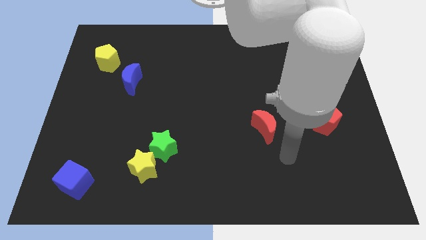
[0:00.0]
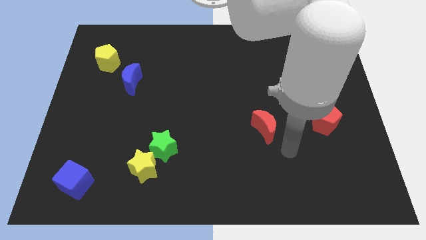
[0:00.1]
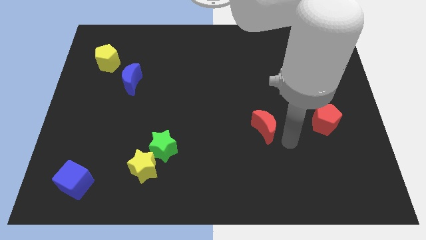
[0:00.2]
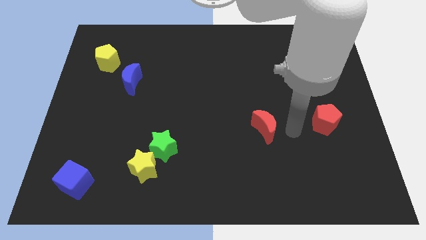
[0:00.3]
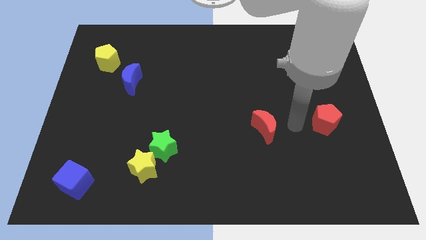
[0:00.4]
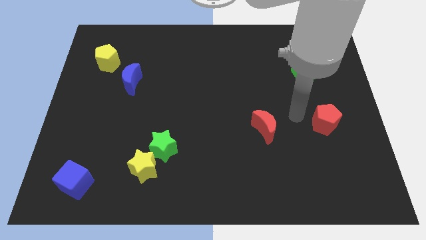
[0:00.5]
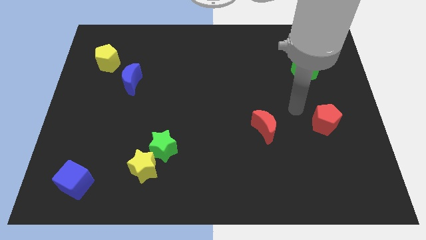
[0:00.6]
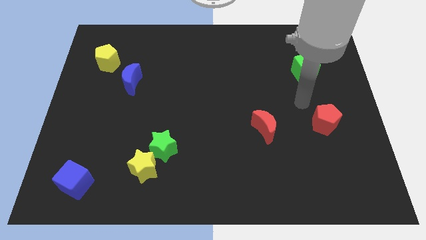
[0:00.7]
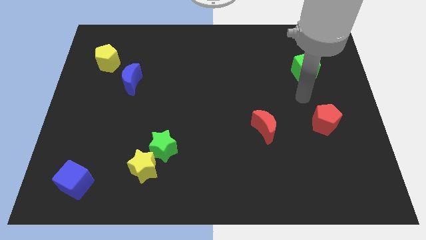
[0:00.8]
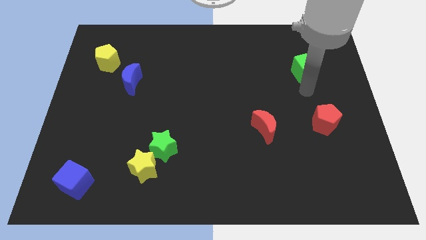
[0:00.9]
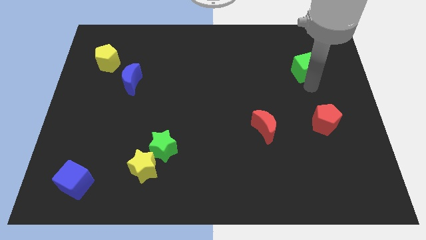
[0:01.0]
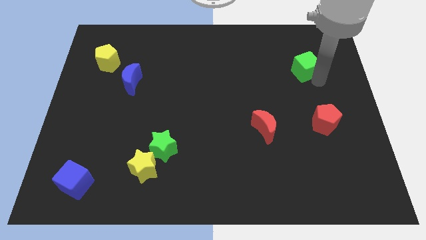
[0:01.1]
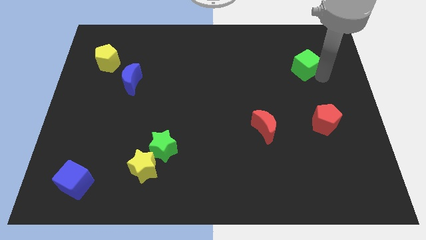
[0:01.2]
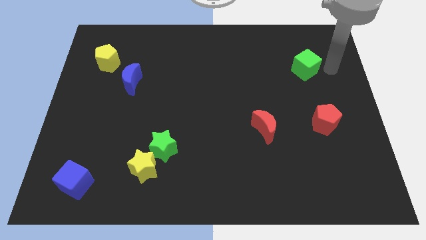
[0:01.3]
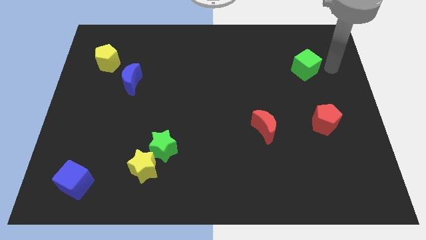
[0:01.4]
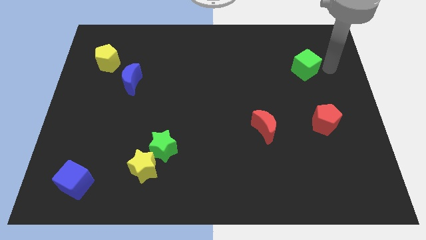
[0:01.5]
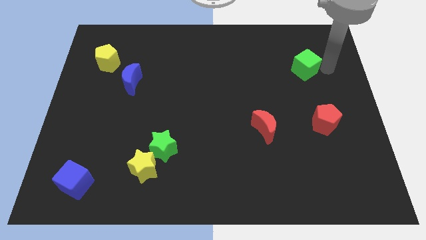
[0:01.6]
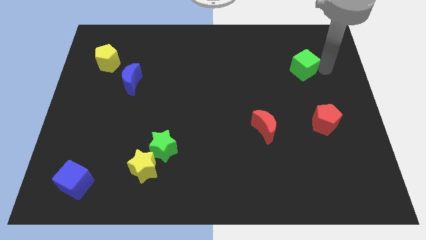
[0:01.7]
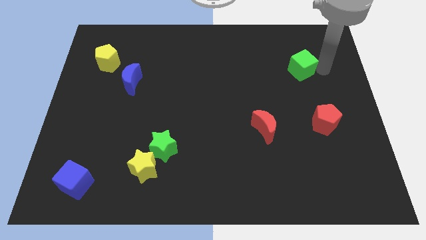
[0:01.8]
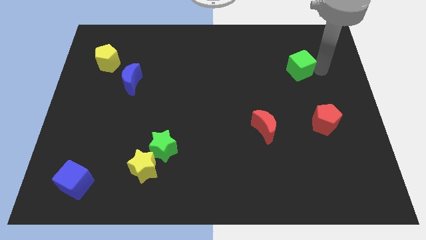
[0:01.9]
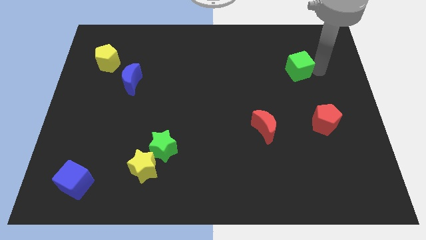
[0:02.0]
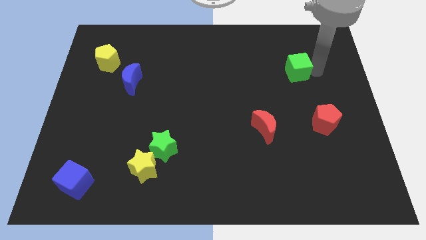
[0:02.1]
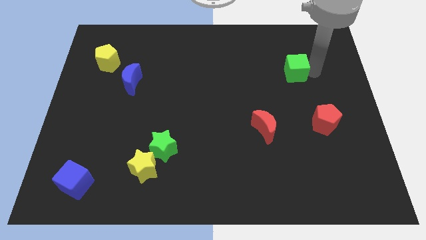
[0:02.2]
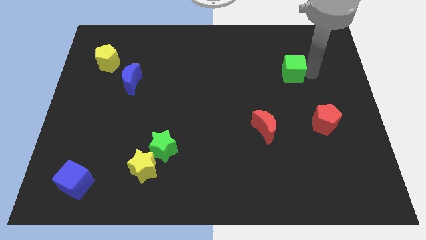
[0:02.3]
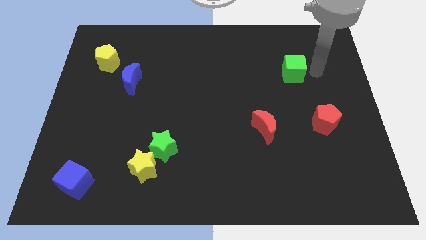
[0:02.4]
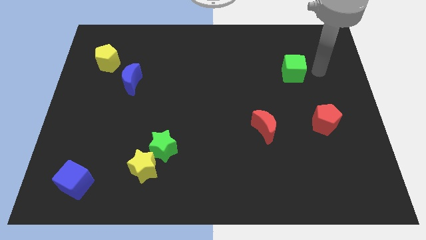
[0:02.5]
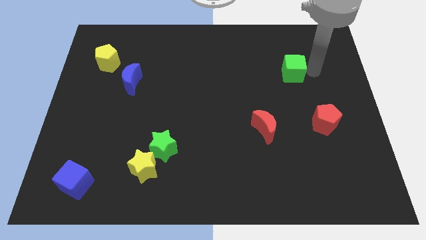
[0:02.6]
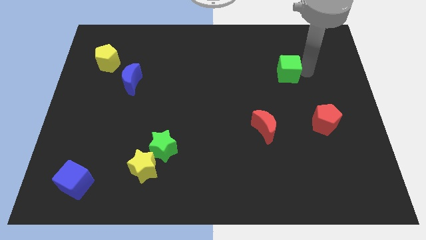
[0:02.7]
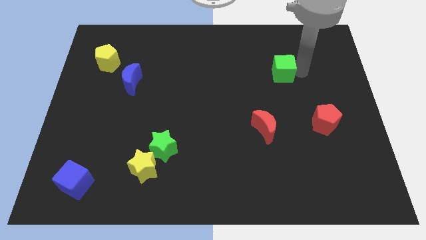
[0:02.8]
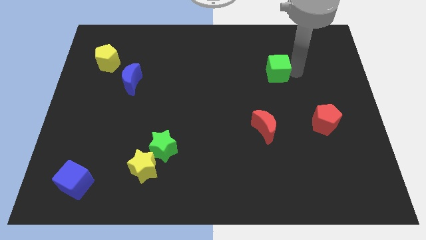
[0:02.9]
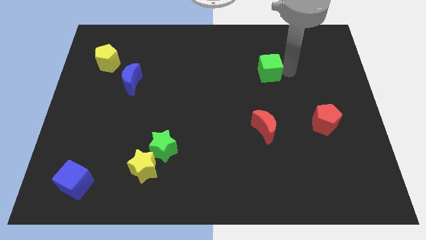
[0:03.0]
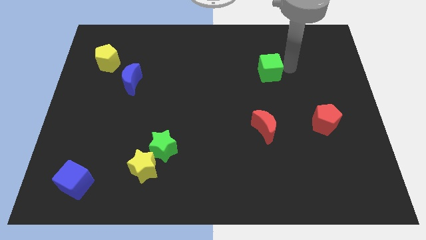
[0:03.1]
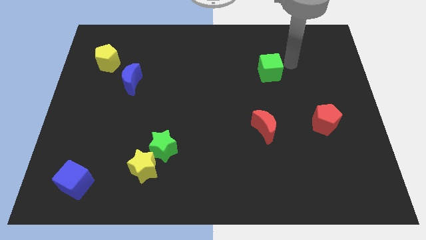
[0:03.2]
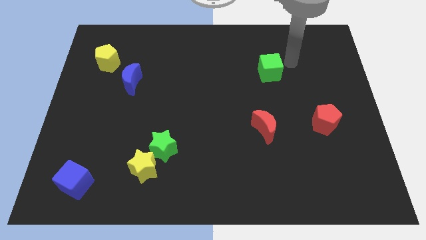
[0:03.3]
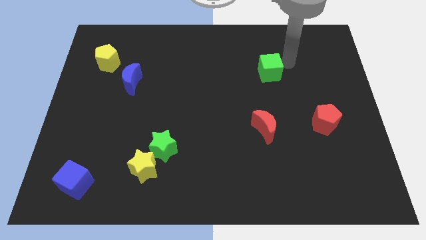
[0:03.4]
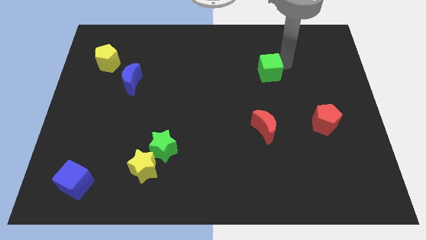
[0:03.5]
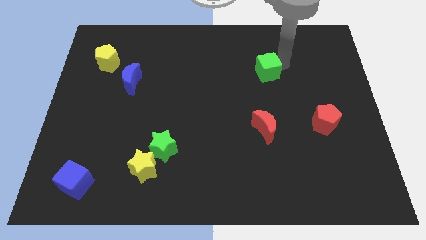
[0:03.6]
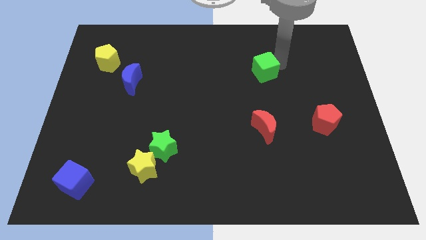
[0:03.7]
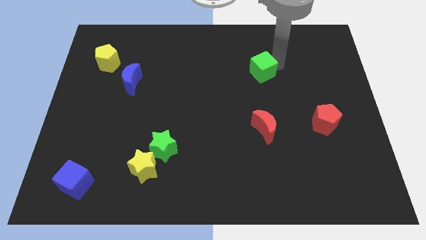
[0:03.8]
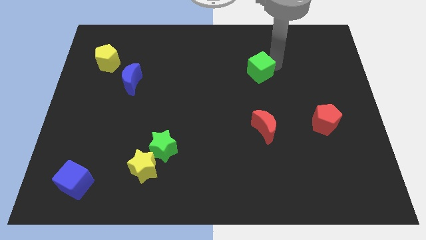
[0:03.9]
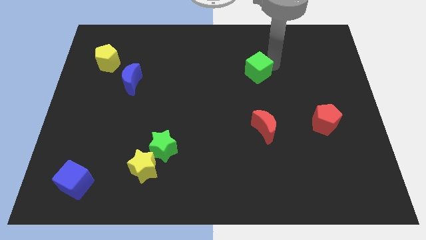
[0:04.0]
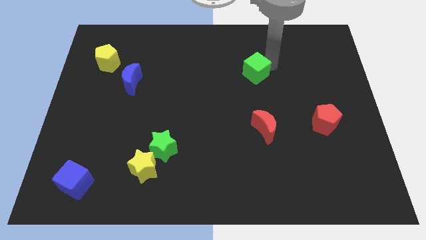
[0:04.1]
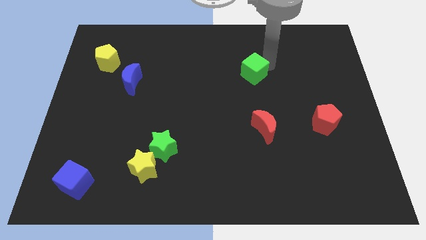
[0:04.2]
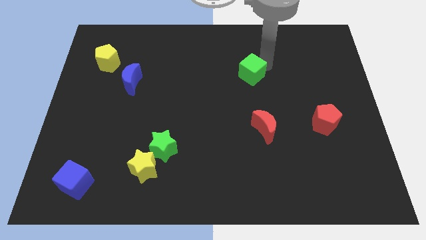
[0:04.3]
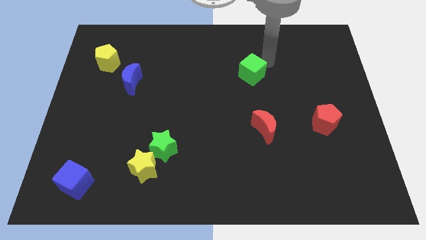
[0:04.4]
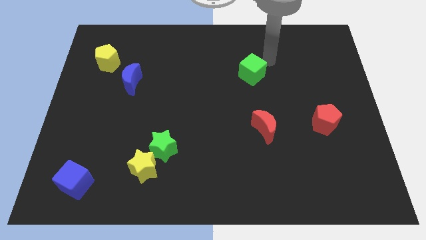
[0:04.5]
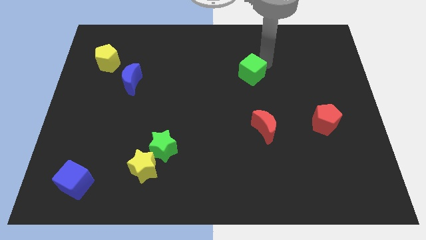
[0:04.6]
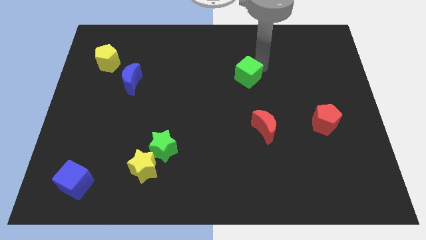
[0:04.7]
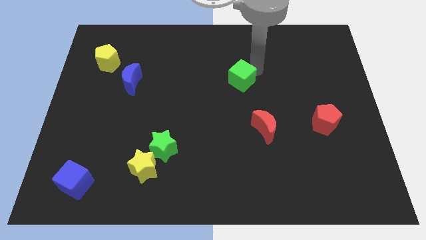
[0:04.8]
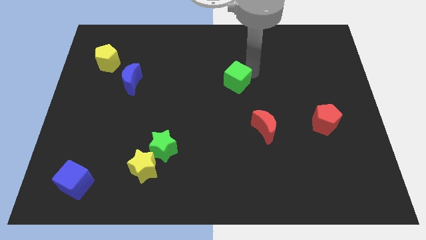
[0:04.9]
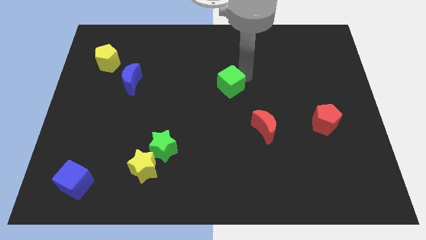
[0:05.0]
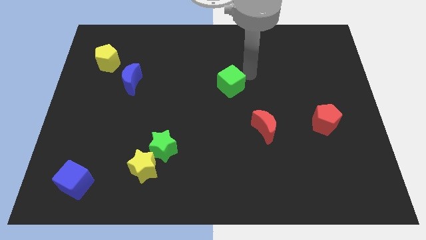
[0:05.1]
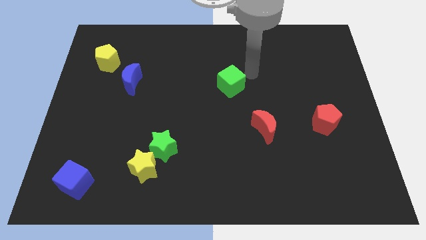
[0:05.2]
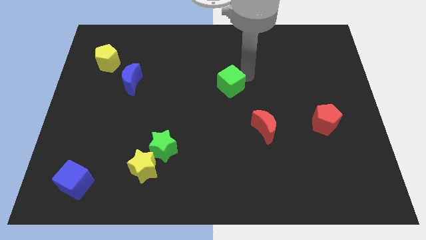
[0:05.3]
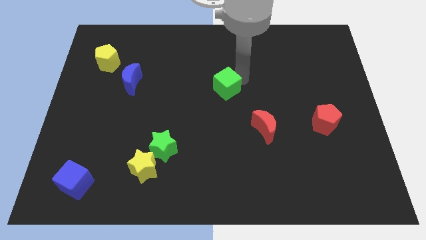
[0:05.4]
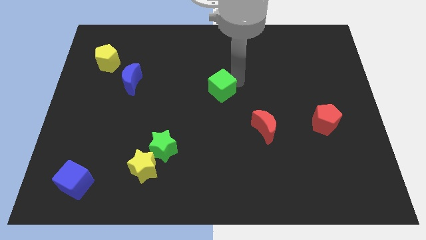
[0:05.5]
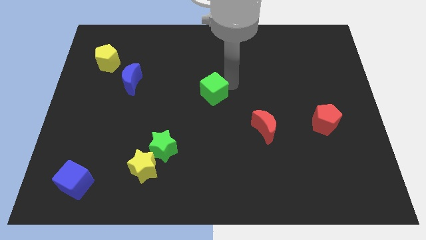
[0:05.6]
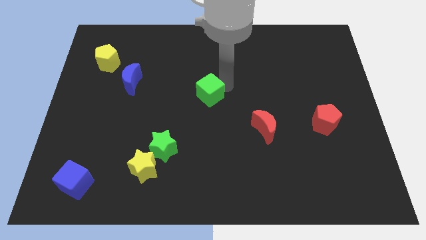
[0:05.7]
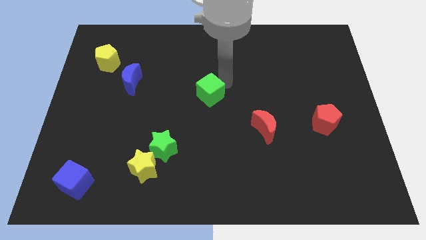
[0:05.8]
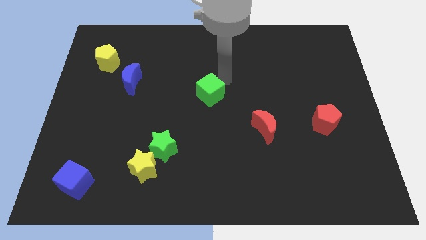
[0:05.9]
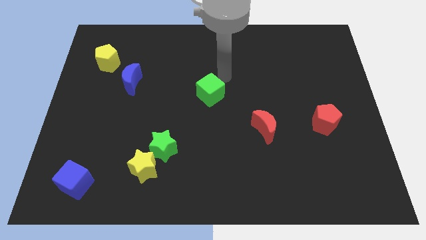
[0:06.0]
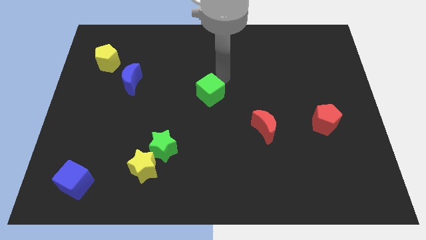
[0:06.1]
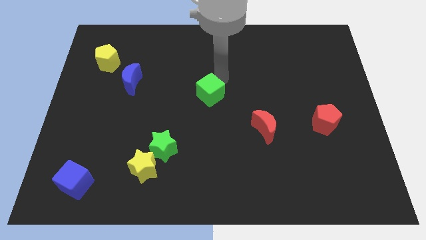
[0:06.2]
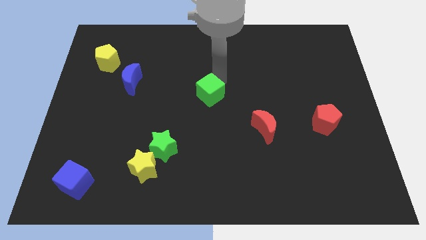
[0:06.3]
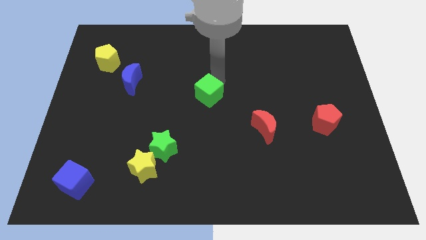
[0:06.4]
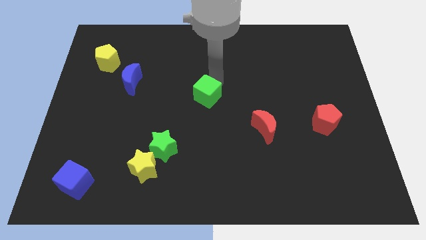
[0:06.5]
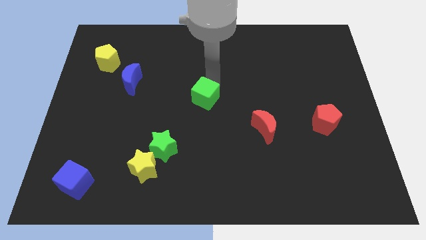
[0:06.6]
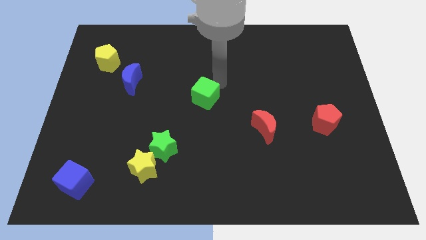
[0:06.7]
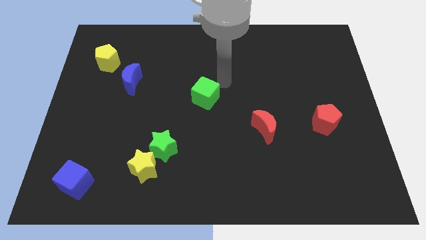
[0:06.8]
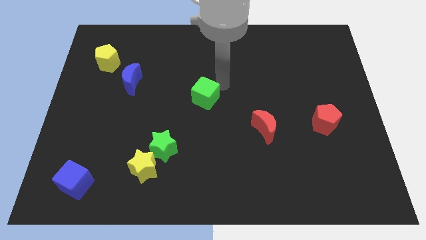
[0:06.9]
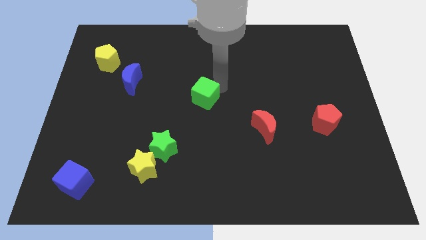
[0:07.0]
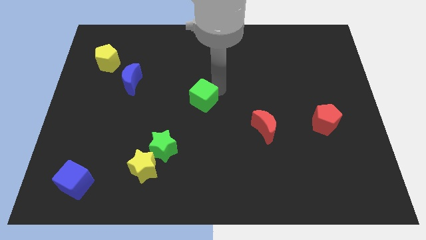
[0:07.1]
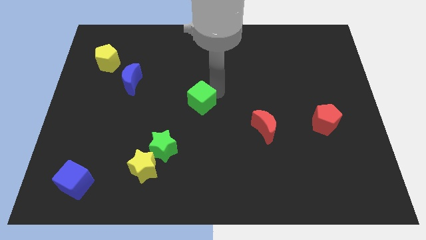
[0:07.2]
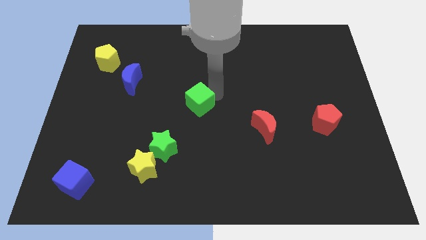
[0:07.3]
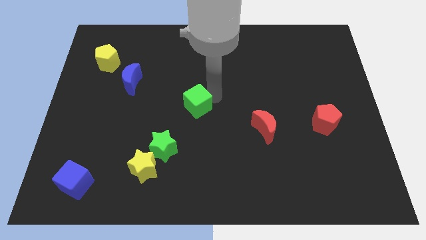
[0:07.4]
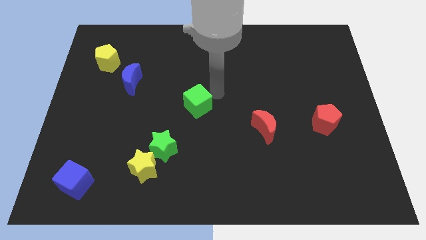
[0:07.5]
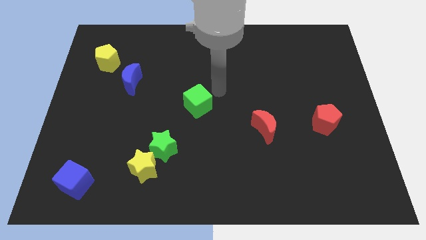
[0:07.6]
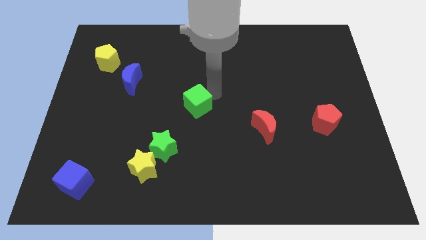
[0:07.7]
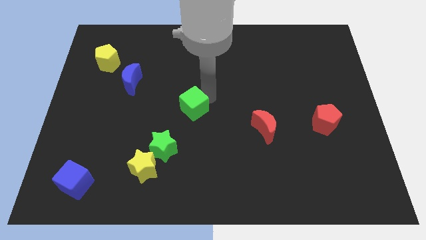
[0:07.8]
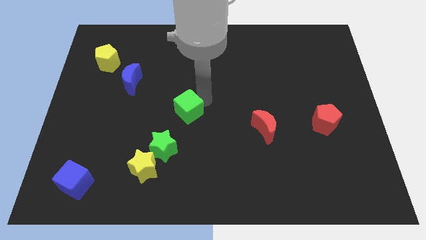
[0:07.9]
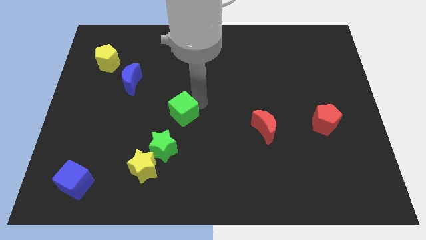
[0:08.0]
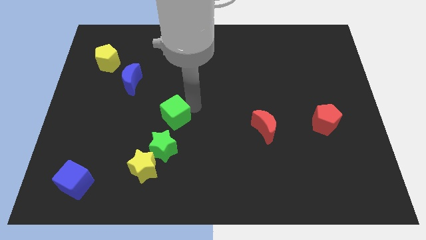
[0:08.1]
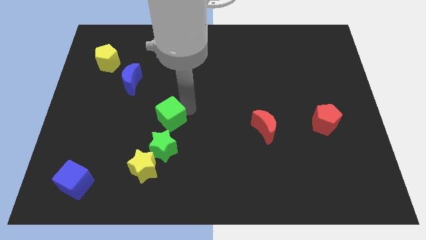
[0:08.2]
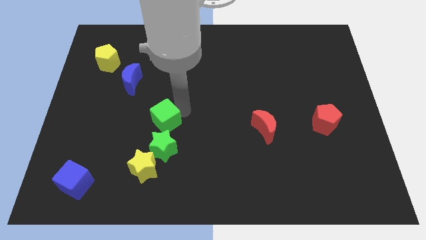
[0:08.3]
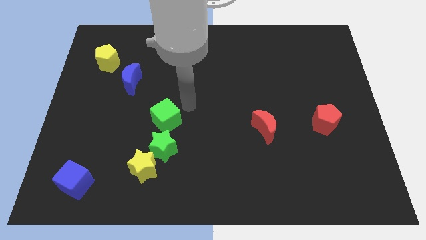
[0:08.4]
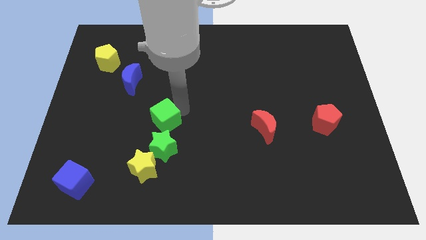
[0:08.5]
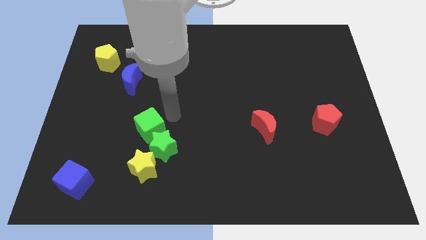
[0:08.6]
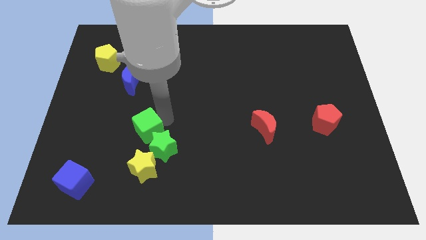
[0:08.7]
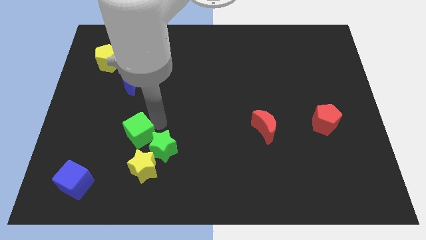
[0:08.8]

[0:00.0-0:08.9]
slide the green cube to the top left side of the yellow star
